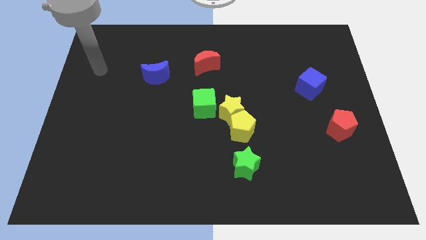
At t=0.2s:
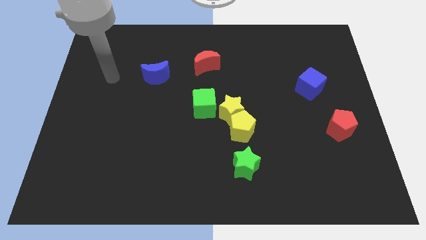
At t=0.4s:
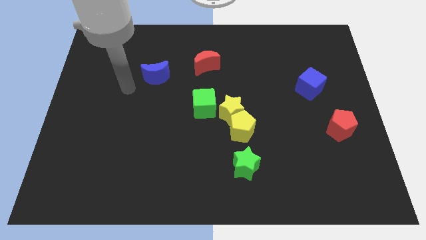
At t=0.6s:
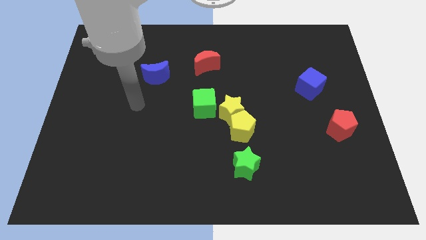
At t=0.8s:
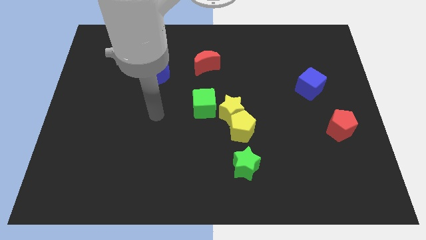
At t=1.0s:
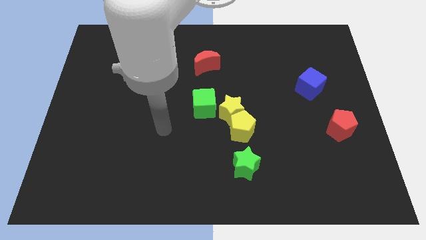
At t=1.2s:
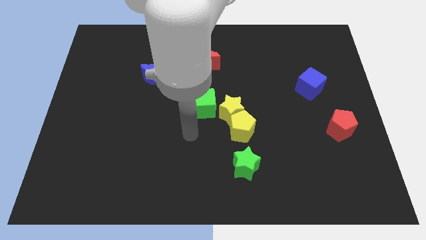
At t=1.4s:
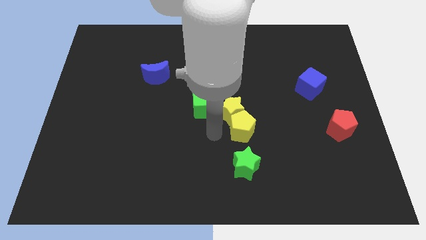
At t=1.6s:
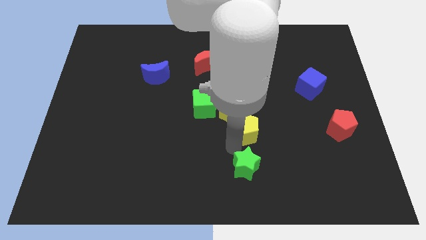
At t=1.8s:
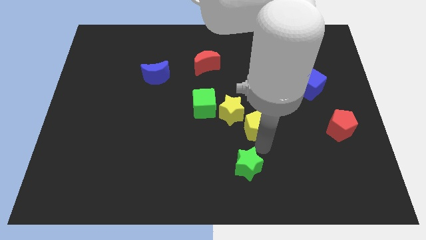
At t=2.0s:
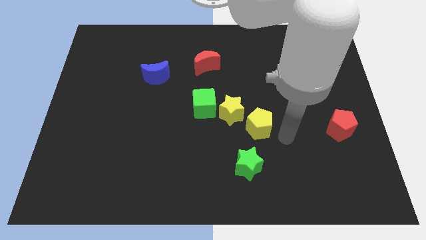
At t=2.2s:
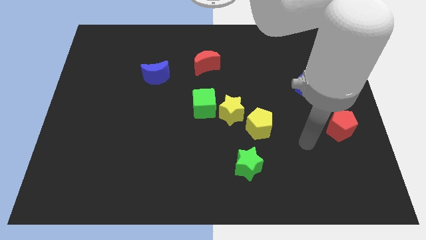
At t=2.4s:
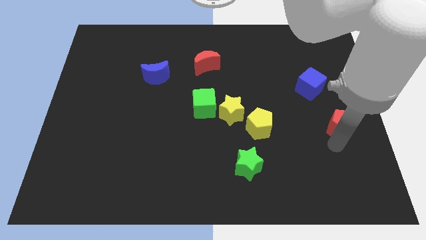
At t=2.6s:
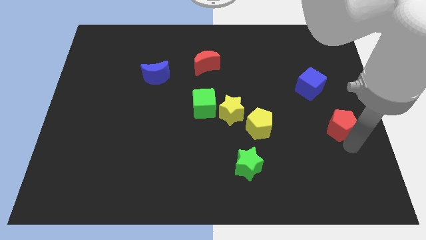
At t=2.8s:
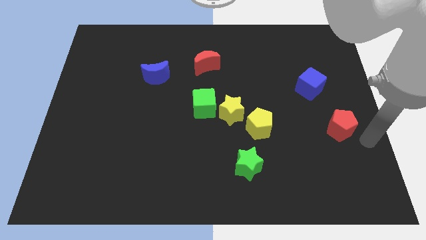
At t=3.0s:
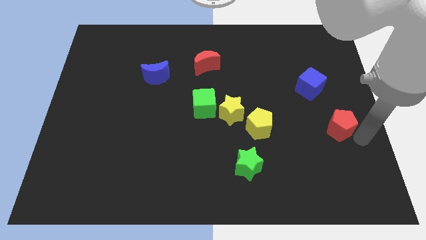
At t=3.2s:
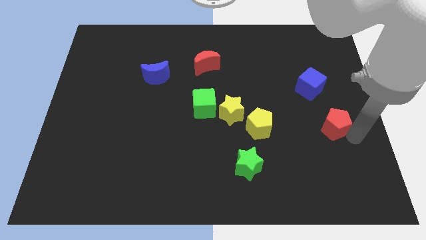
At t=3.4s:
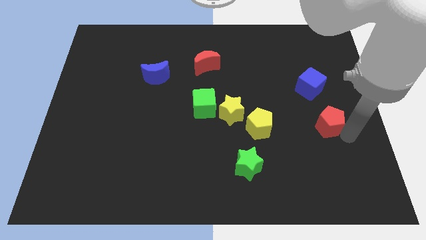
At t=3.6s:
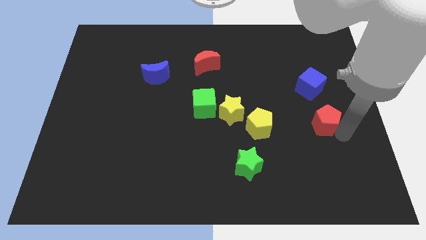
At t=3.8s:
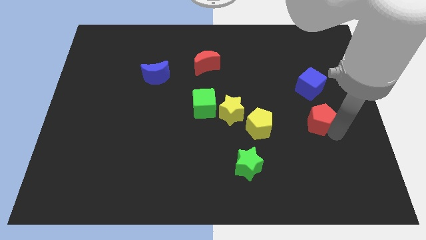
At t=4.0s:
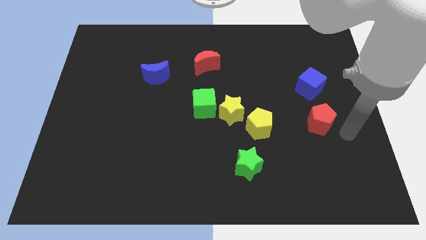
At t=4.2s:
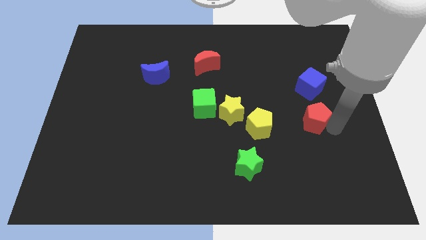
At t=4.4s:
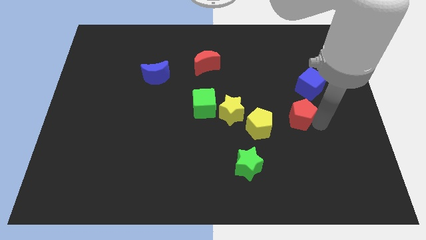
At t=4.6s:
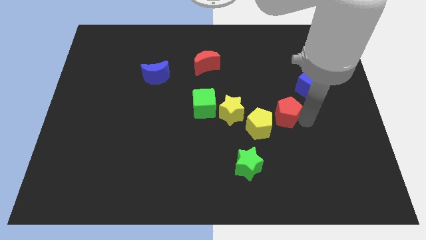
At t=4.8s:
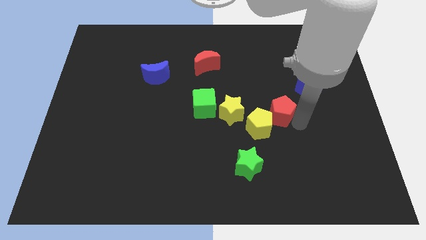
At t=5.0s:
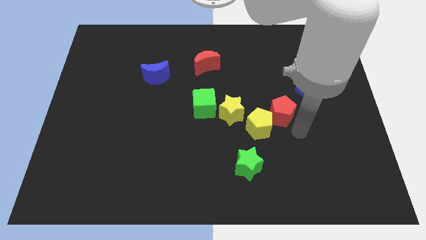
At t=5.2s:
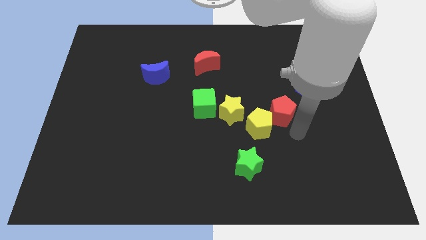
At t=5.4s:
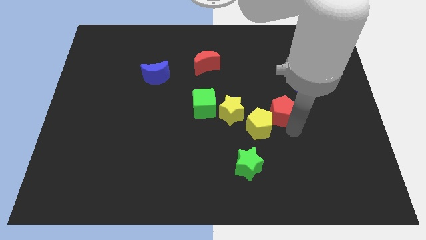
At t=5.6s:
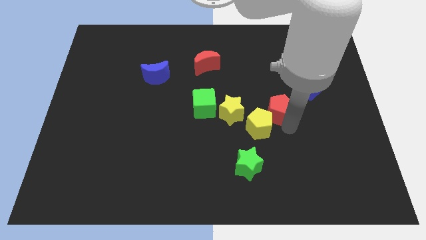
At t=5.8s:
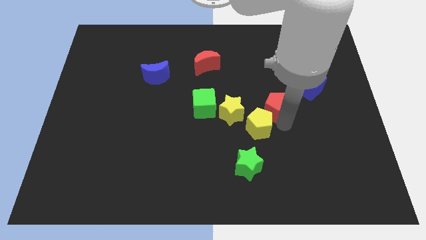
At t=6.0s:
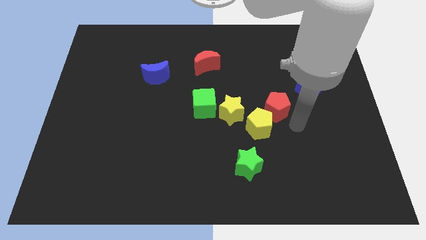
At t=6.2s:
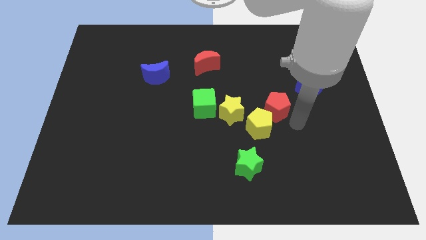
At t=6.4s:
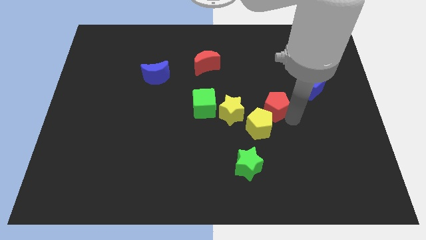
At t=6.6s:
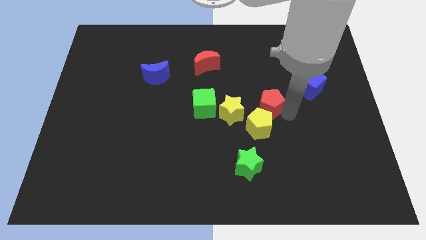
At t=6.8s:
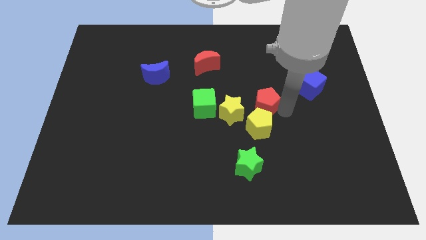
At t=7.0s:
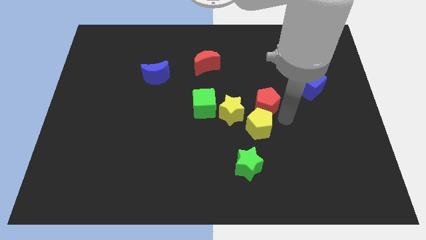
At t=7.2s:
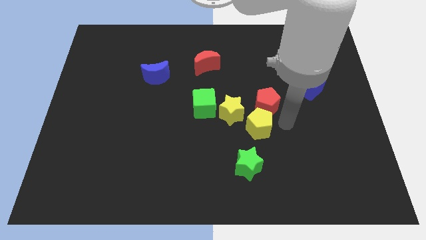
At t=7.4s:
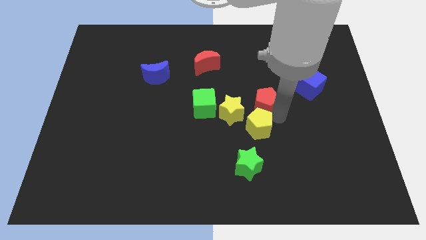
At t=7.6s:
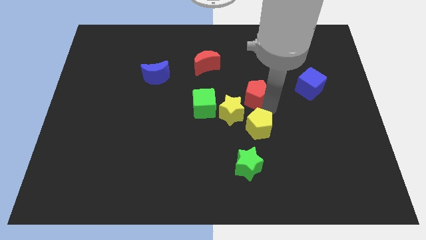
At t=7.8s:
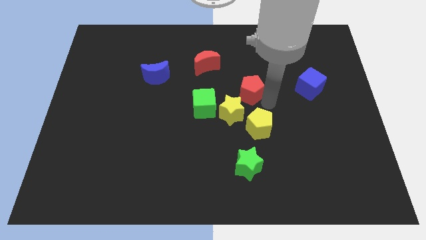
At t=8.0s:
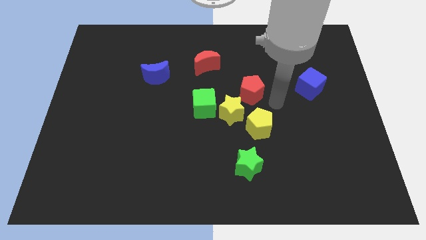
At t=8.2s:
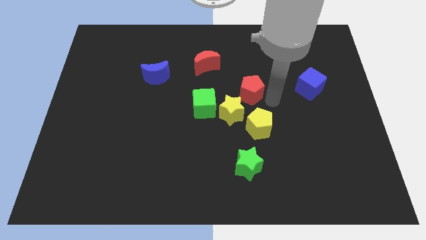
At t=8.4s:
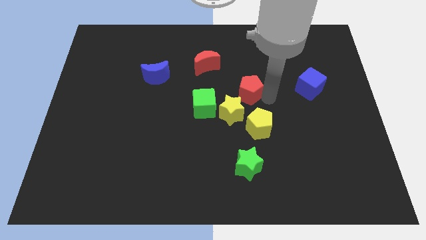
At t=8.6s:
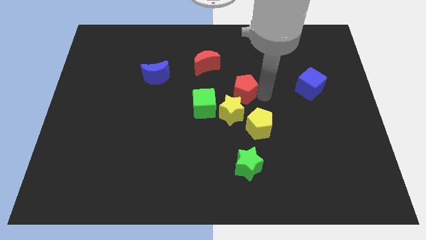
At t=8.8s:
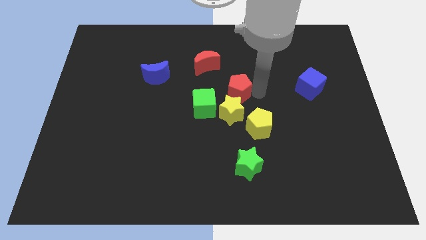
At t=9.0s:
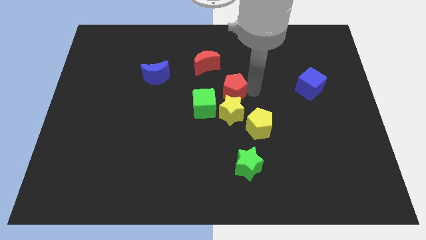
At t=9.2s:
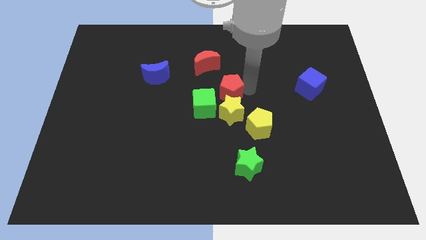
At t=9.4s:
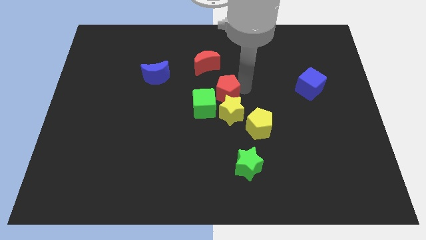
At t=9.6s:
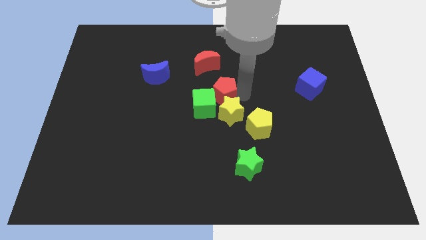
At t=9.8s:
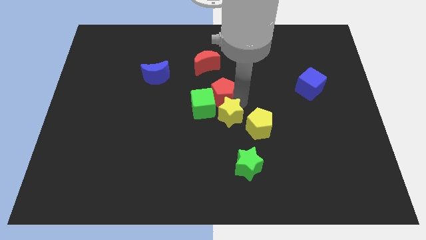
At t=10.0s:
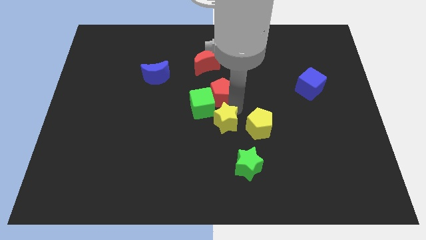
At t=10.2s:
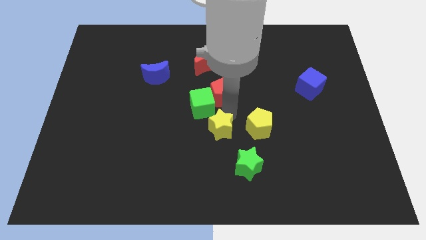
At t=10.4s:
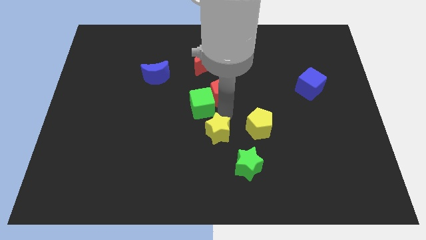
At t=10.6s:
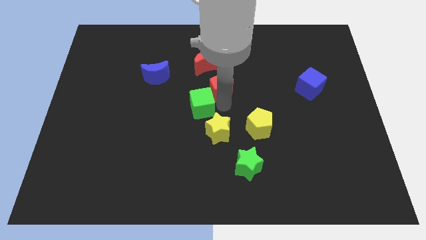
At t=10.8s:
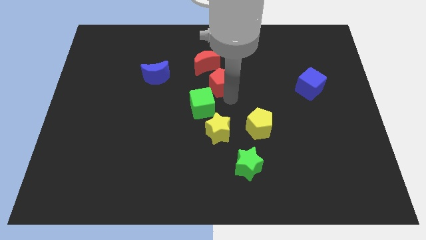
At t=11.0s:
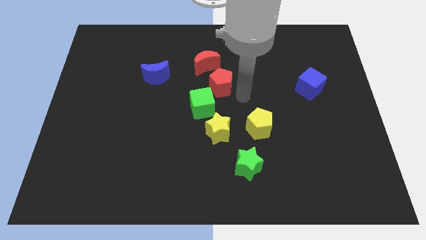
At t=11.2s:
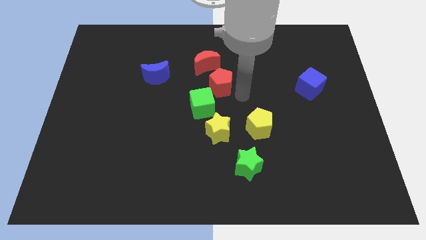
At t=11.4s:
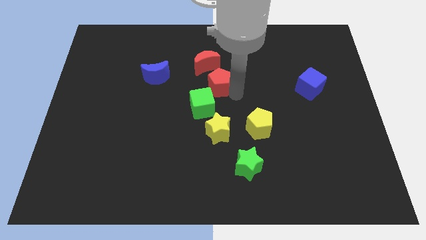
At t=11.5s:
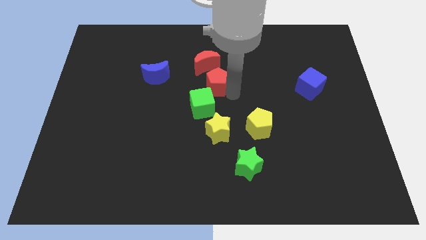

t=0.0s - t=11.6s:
slide the red pentagon to the right of the blue moon

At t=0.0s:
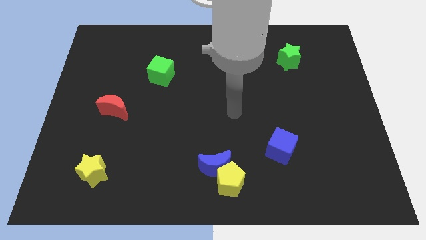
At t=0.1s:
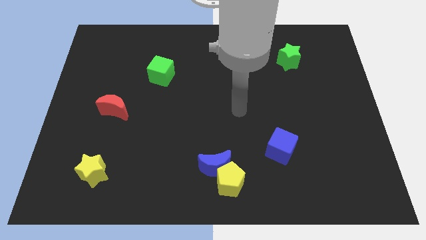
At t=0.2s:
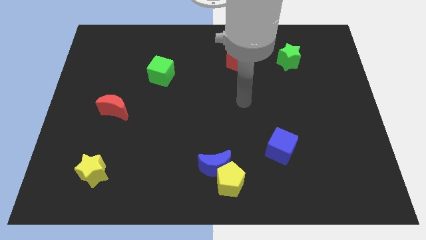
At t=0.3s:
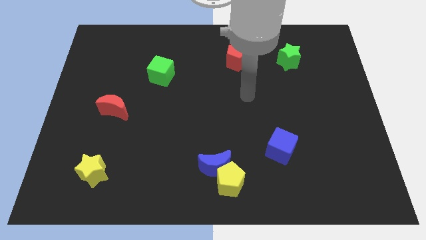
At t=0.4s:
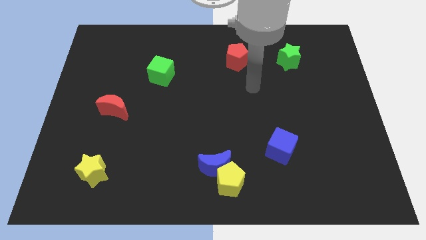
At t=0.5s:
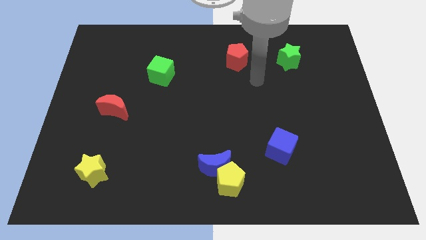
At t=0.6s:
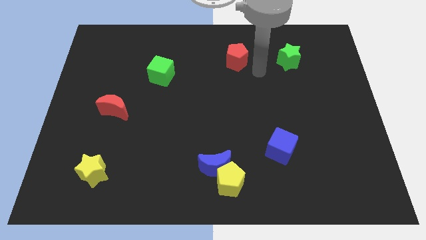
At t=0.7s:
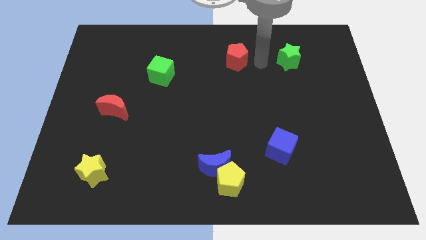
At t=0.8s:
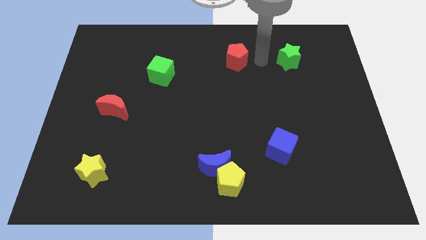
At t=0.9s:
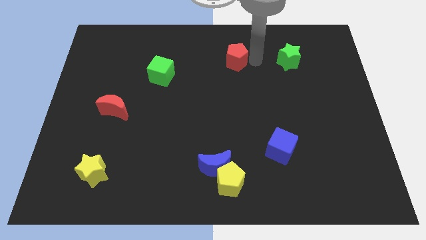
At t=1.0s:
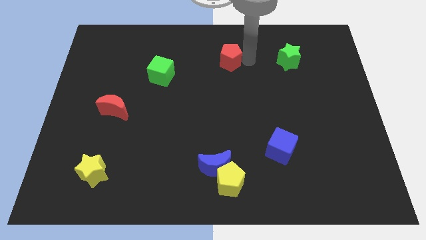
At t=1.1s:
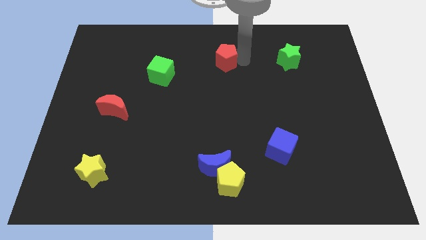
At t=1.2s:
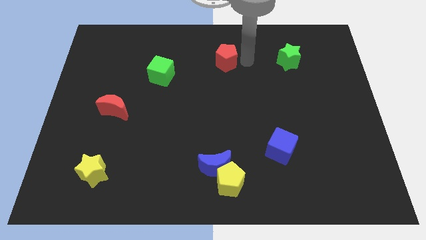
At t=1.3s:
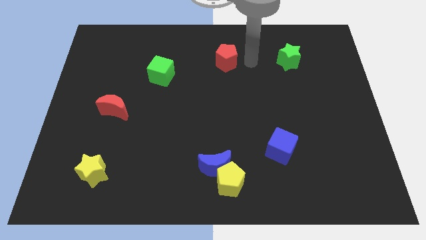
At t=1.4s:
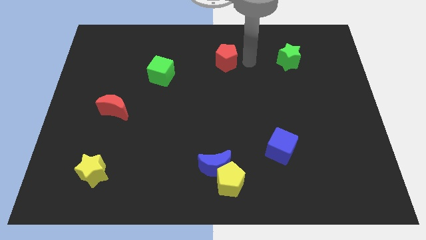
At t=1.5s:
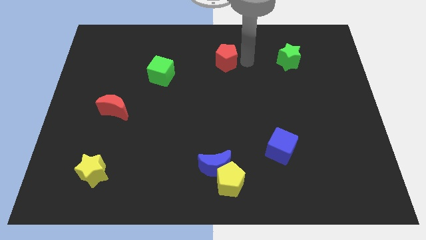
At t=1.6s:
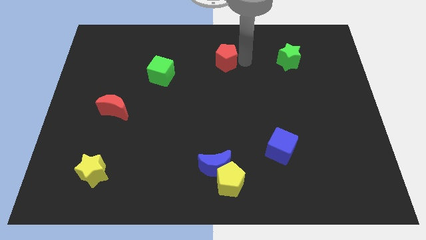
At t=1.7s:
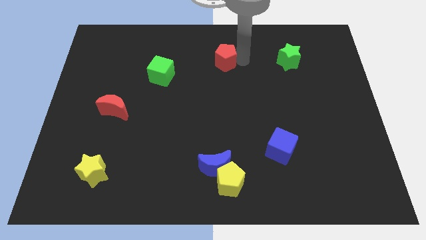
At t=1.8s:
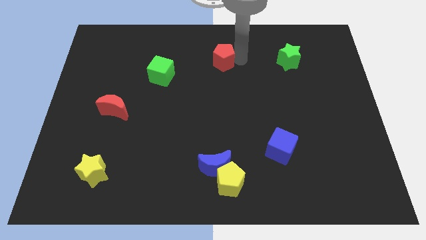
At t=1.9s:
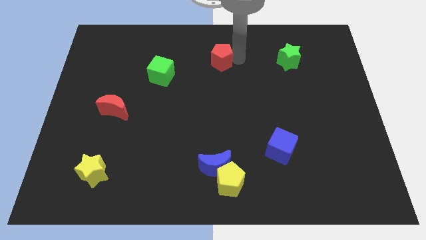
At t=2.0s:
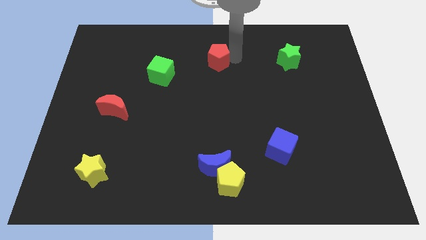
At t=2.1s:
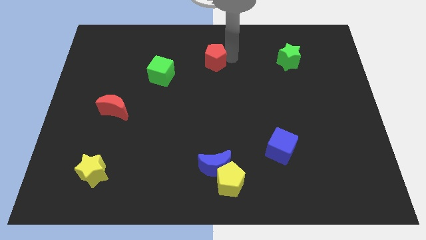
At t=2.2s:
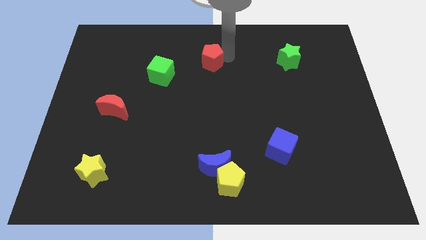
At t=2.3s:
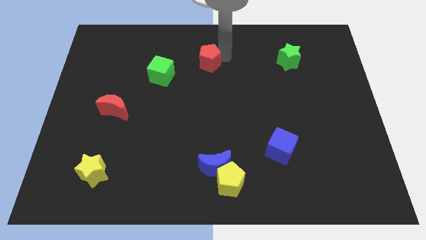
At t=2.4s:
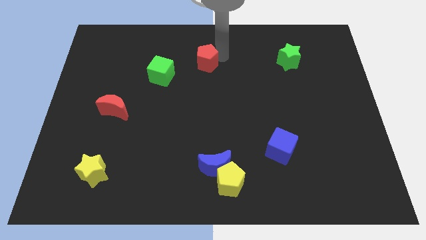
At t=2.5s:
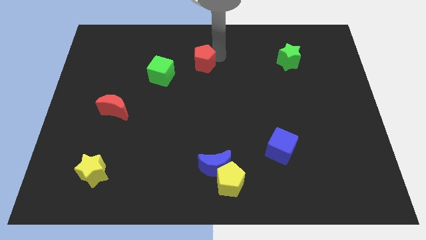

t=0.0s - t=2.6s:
move the red pentagon to the top right of the green cube
